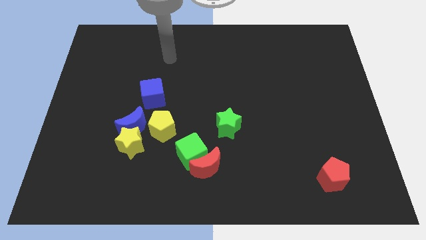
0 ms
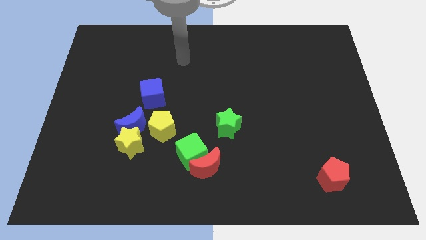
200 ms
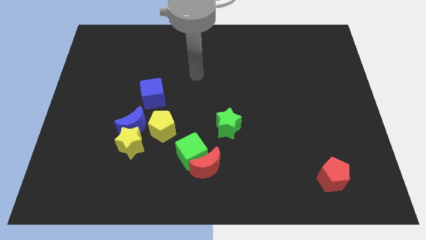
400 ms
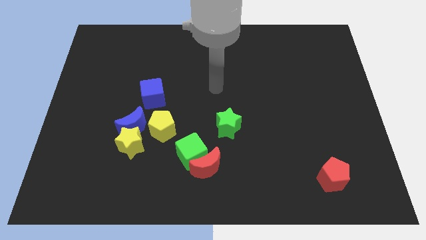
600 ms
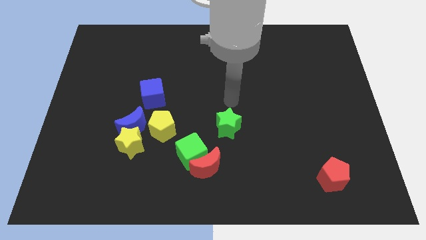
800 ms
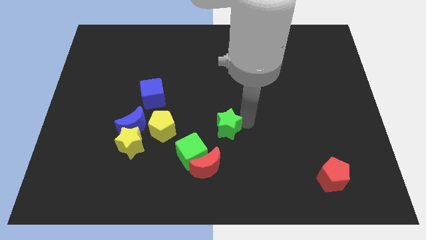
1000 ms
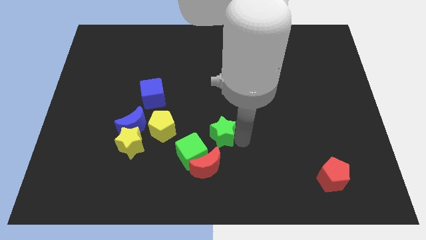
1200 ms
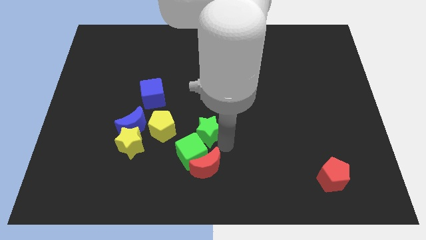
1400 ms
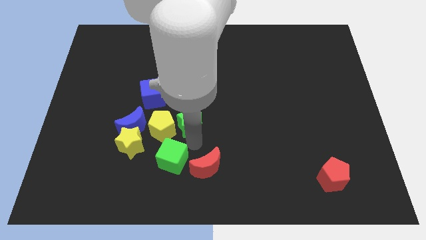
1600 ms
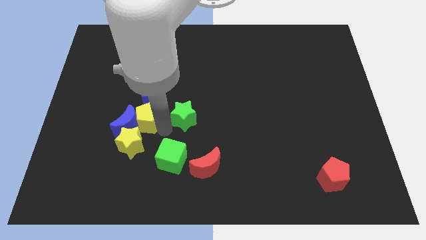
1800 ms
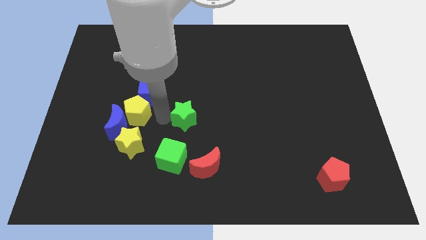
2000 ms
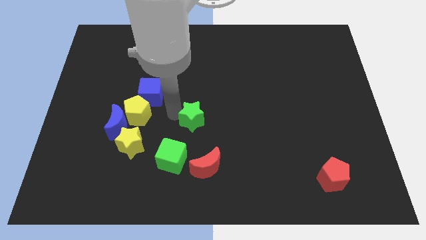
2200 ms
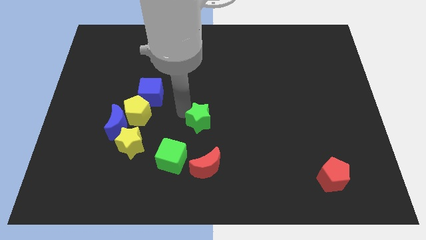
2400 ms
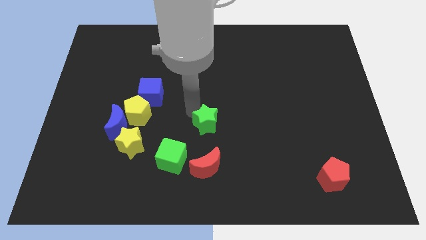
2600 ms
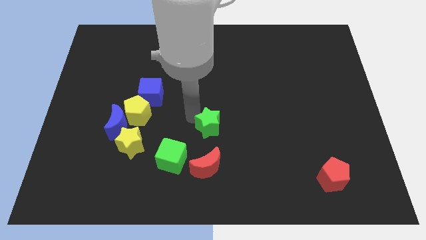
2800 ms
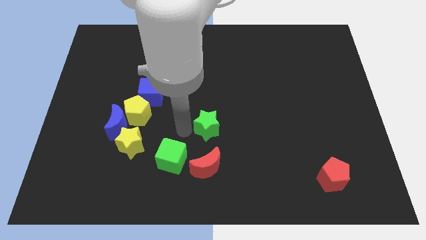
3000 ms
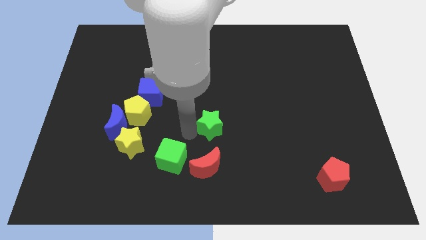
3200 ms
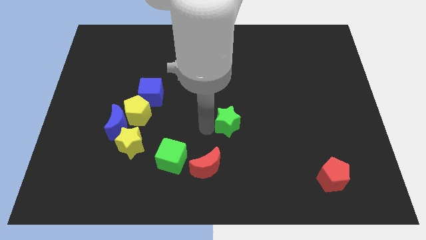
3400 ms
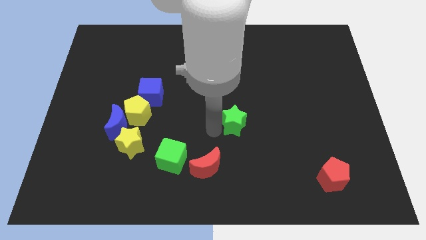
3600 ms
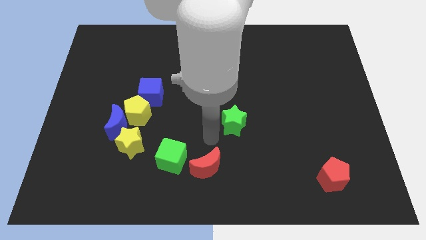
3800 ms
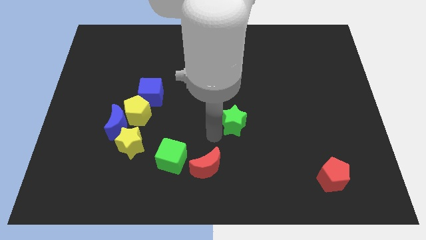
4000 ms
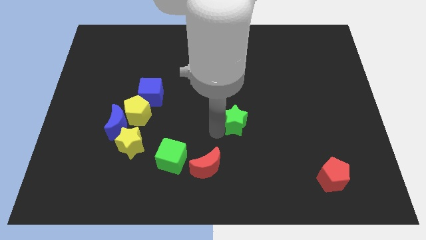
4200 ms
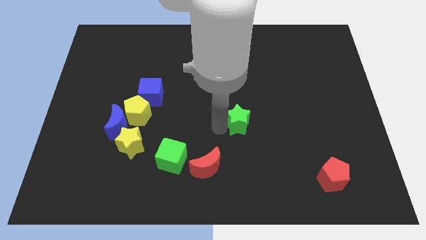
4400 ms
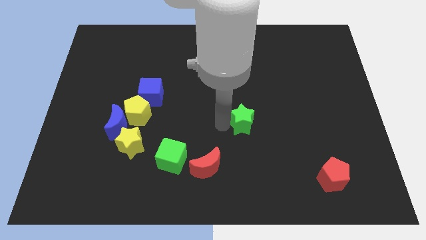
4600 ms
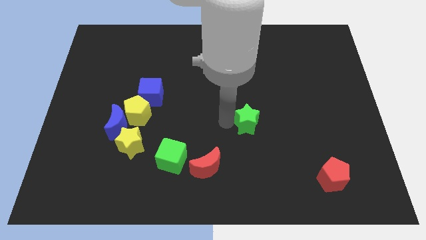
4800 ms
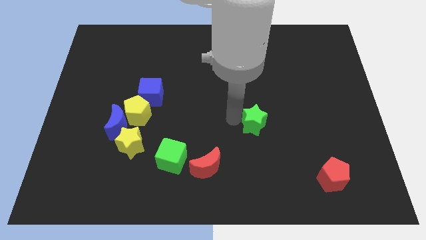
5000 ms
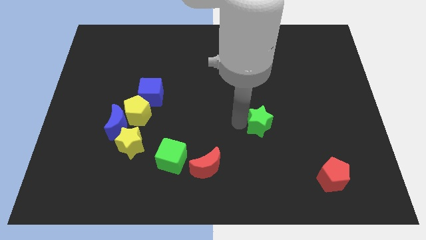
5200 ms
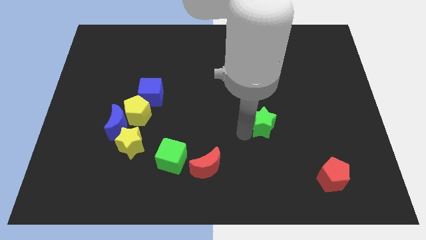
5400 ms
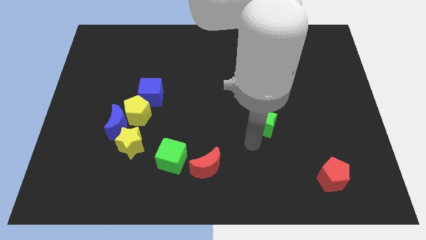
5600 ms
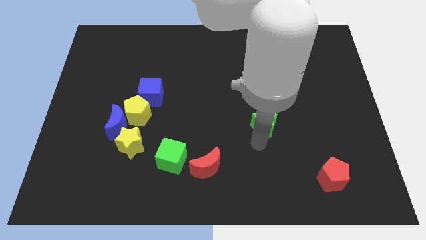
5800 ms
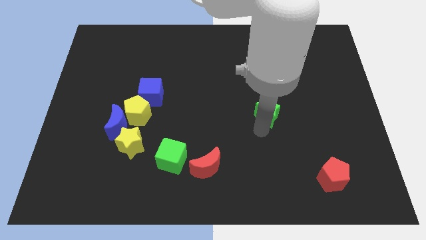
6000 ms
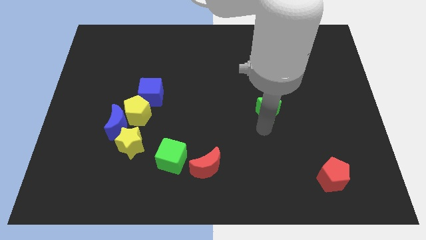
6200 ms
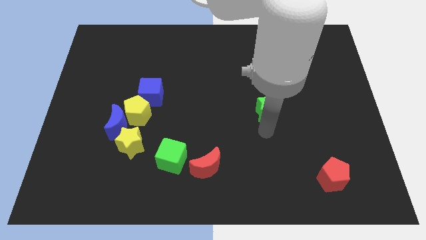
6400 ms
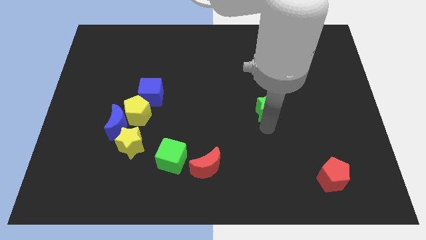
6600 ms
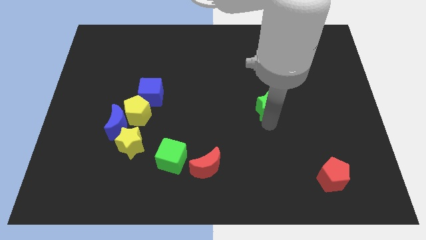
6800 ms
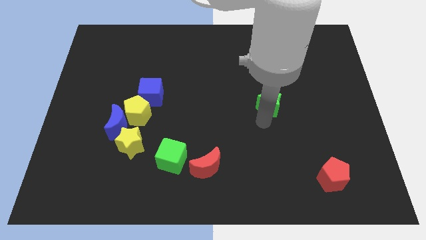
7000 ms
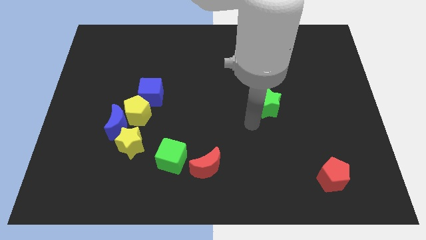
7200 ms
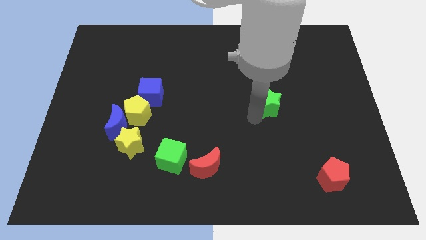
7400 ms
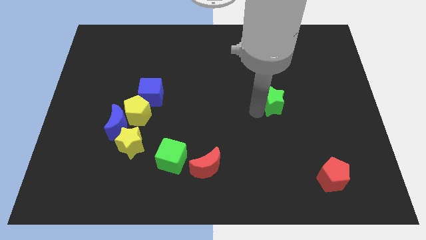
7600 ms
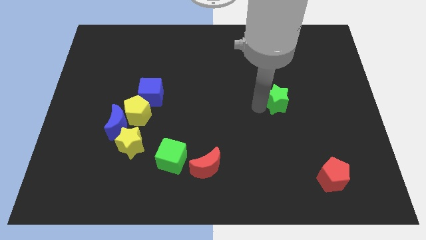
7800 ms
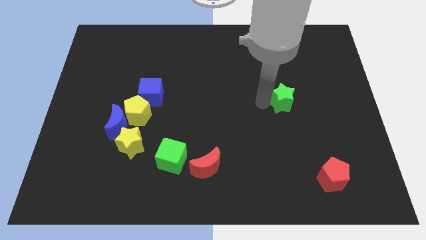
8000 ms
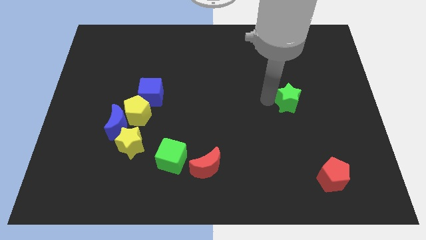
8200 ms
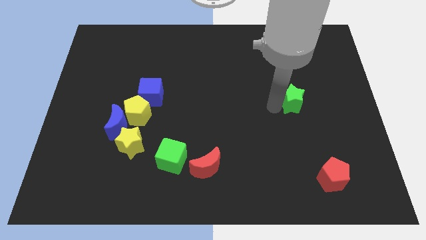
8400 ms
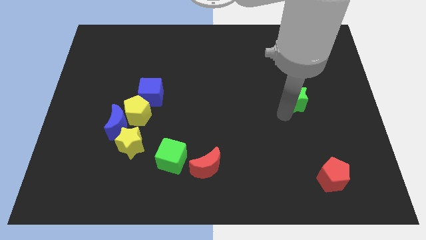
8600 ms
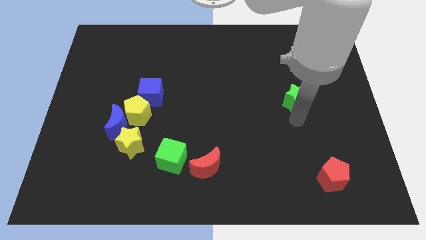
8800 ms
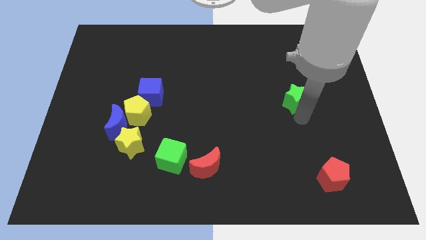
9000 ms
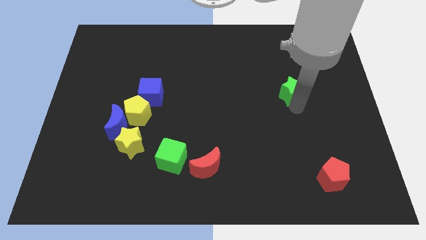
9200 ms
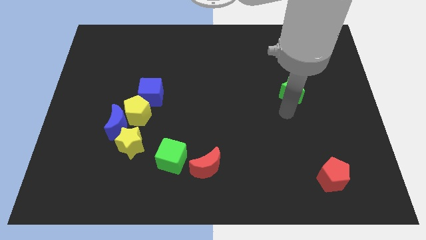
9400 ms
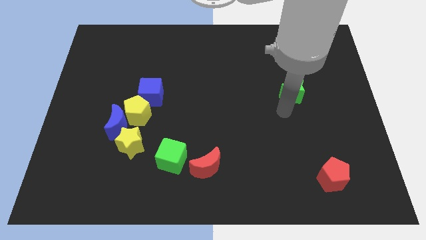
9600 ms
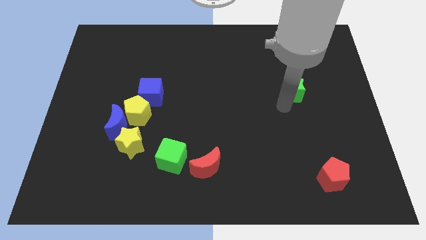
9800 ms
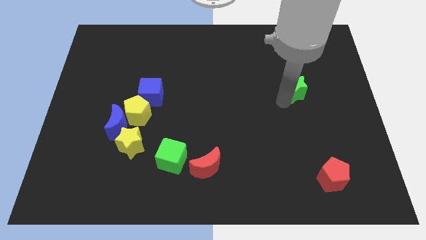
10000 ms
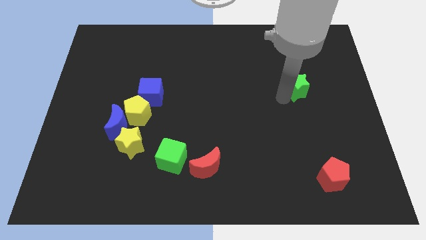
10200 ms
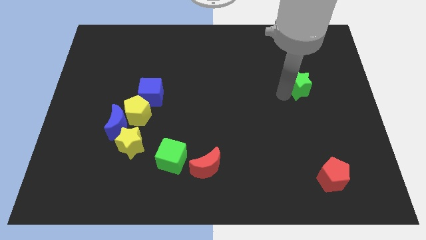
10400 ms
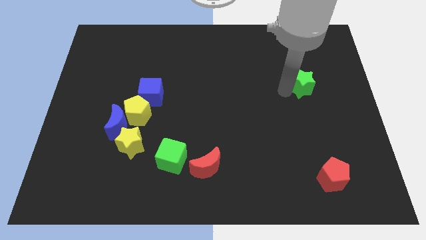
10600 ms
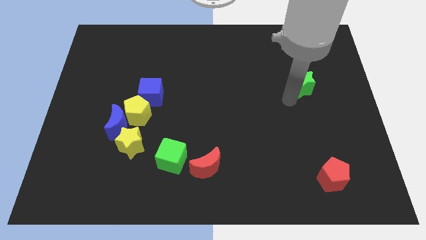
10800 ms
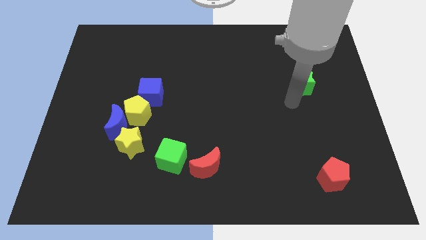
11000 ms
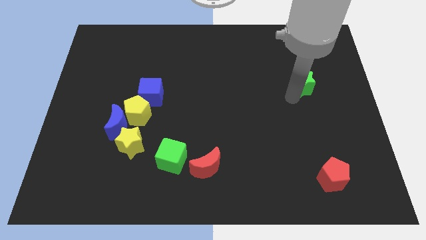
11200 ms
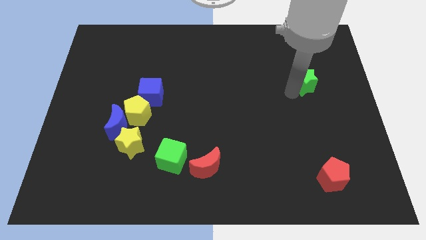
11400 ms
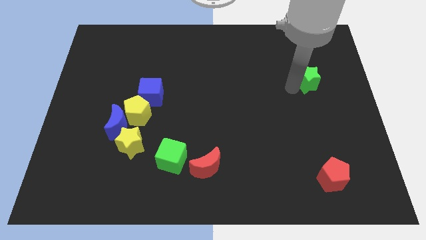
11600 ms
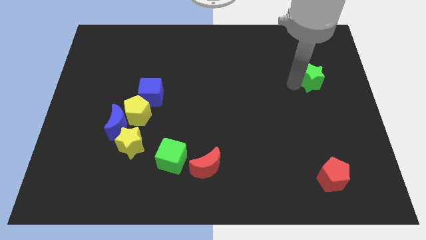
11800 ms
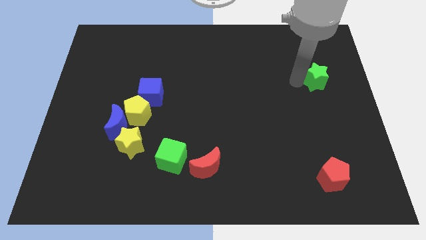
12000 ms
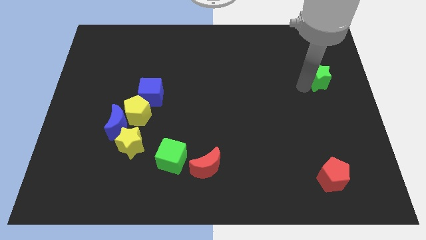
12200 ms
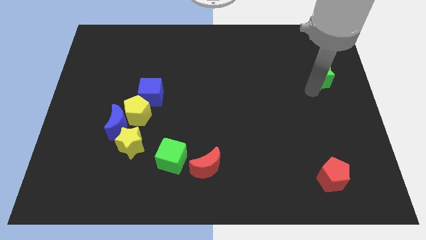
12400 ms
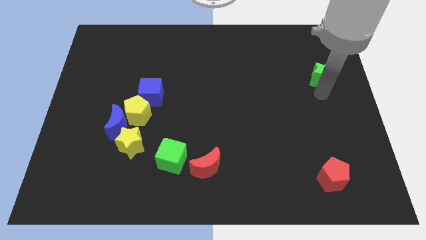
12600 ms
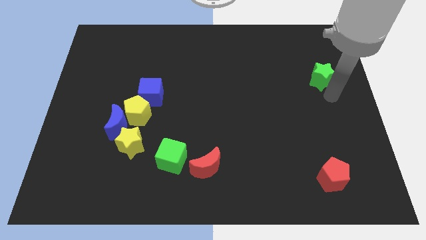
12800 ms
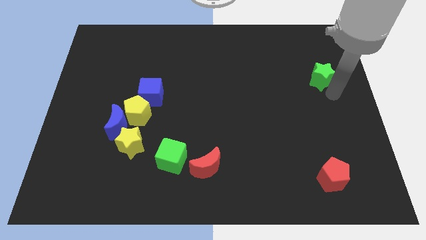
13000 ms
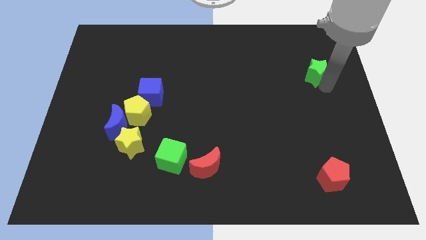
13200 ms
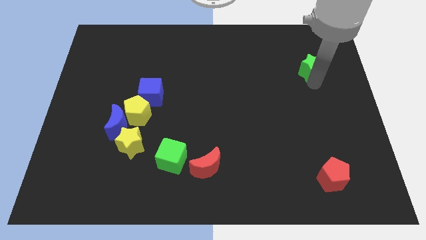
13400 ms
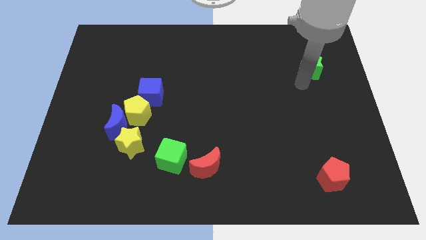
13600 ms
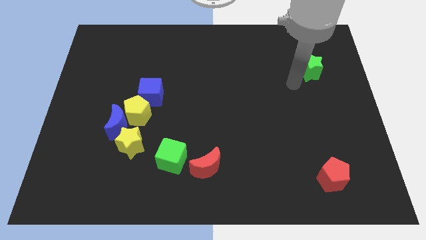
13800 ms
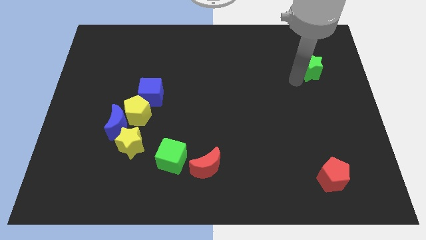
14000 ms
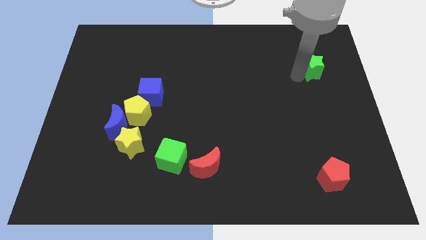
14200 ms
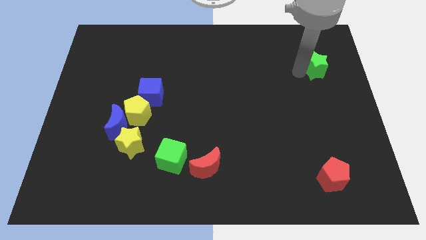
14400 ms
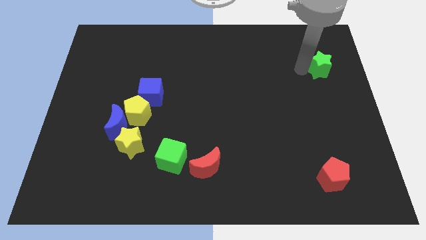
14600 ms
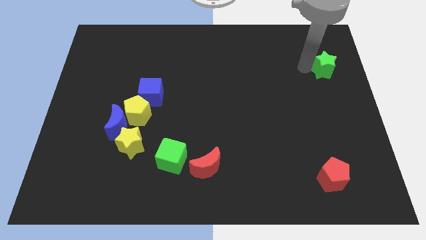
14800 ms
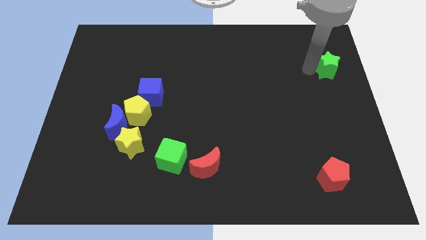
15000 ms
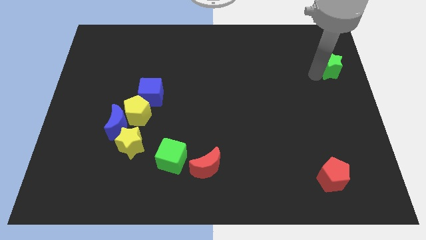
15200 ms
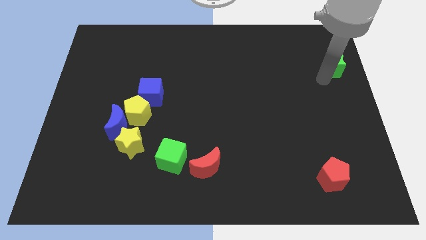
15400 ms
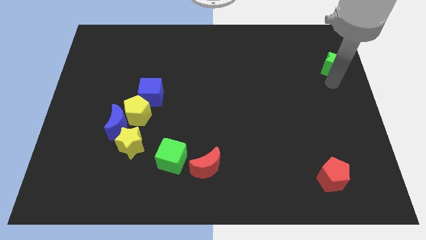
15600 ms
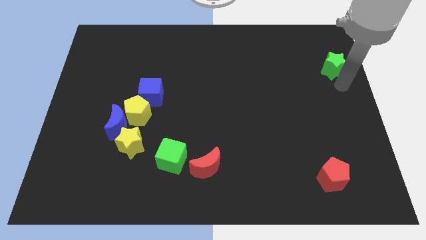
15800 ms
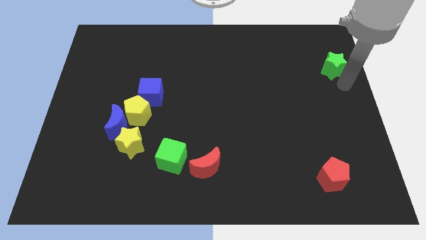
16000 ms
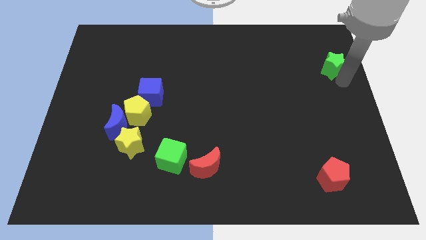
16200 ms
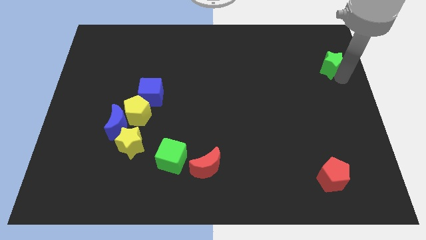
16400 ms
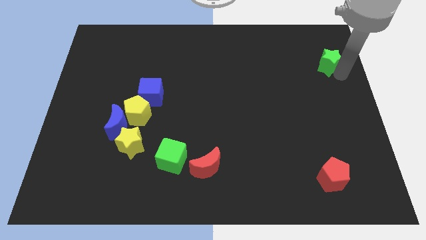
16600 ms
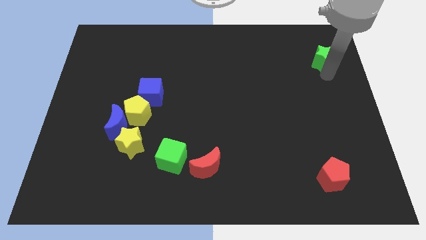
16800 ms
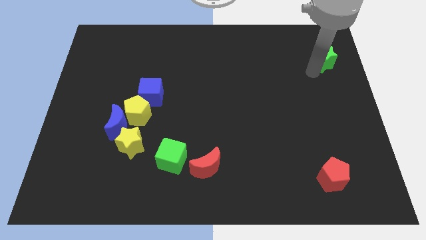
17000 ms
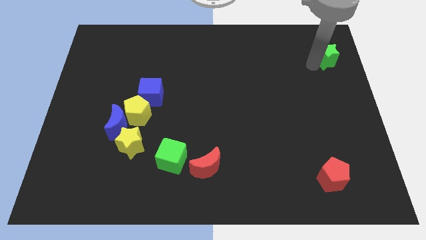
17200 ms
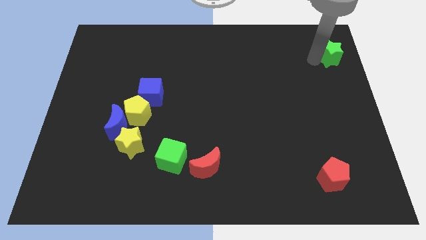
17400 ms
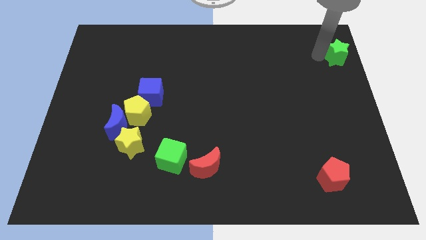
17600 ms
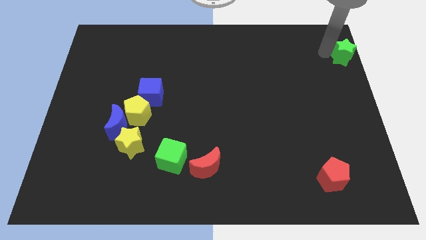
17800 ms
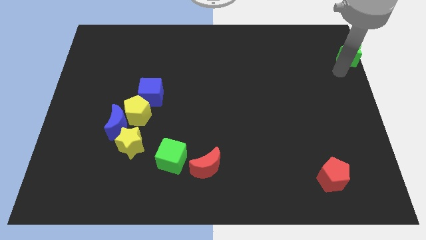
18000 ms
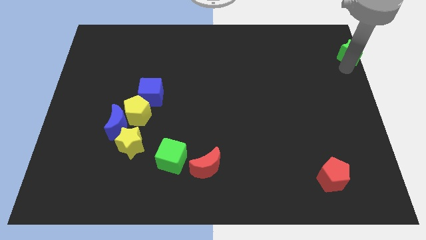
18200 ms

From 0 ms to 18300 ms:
slide the green star to the upper right corner
